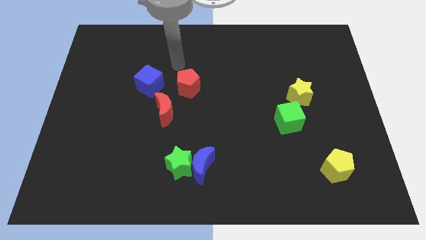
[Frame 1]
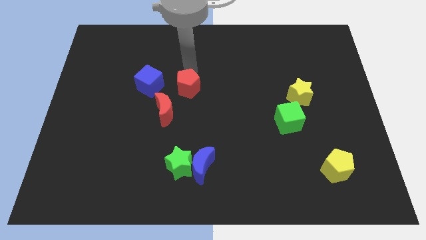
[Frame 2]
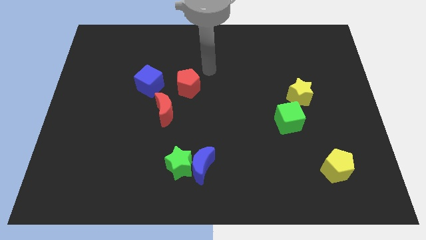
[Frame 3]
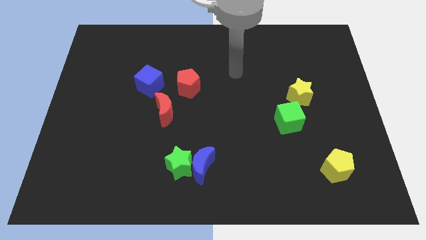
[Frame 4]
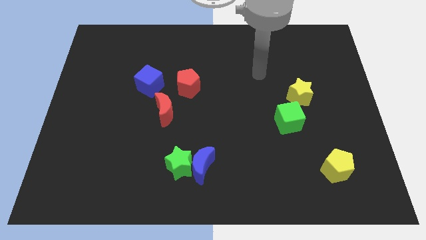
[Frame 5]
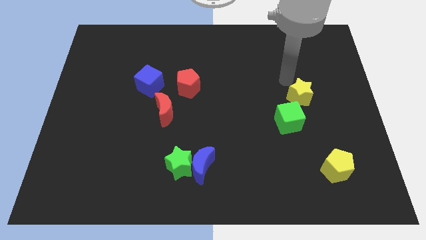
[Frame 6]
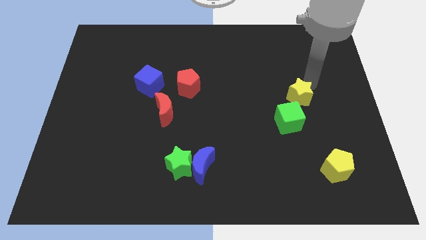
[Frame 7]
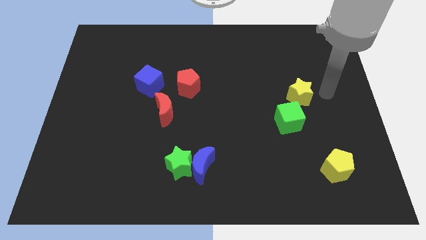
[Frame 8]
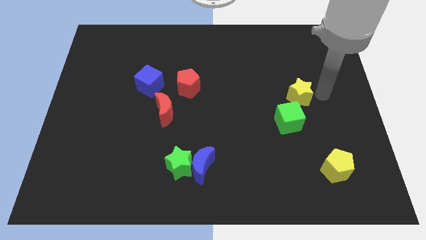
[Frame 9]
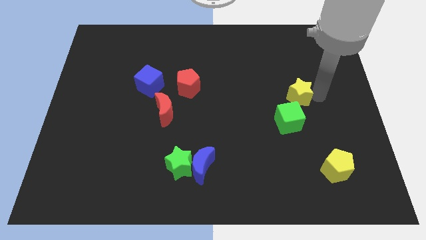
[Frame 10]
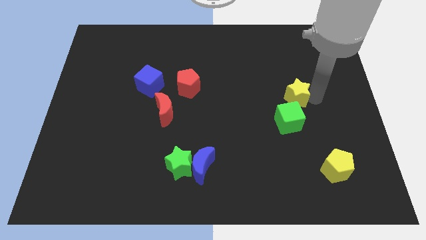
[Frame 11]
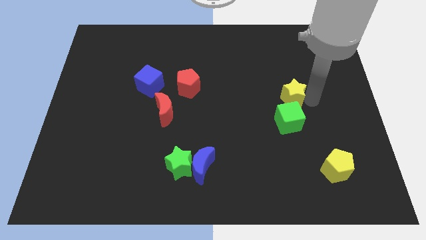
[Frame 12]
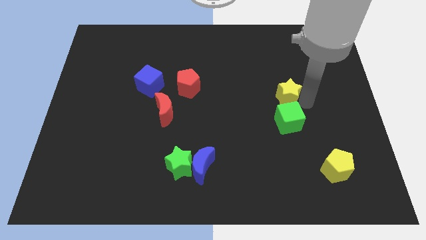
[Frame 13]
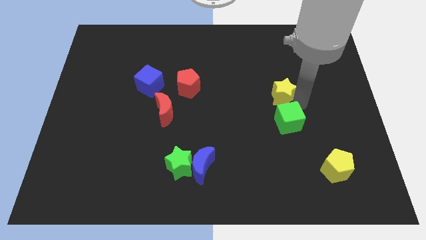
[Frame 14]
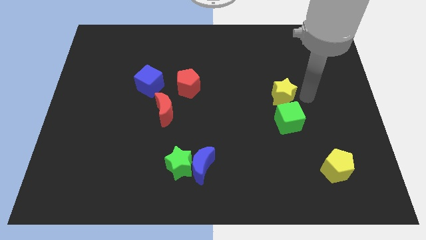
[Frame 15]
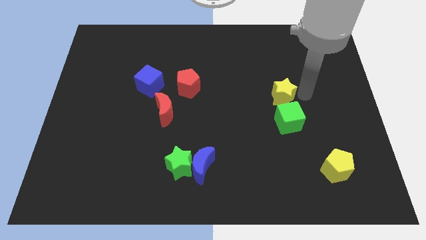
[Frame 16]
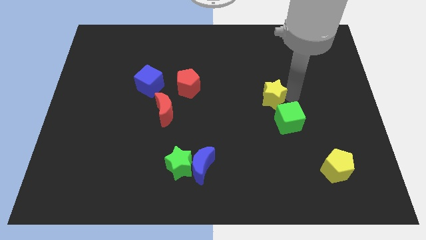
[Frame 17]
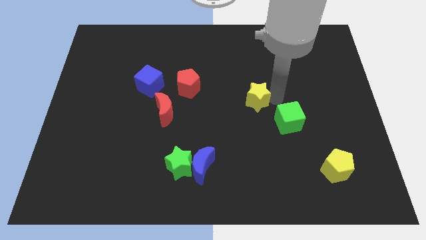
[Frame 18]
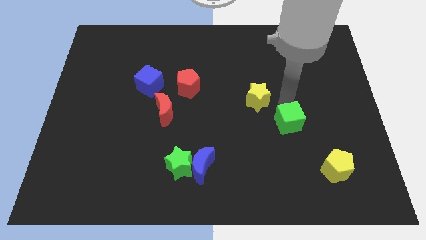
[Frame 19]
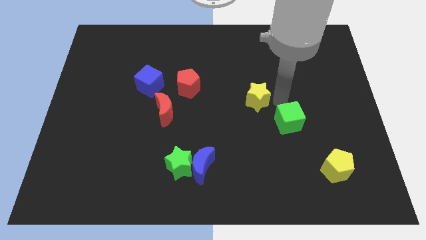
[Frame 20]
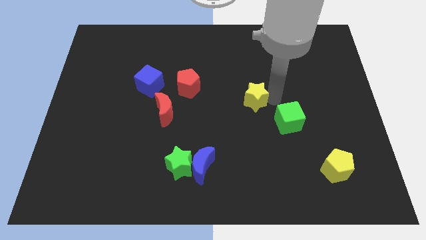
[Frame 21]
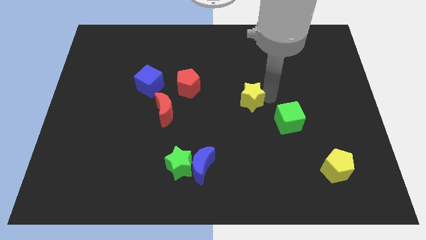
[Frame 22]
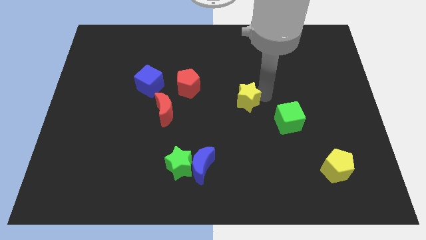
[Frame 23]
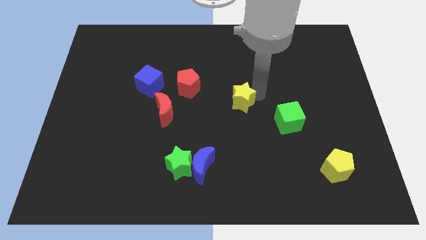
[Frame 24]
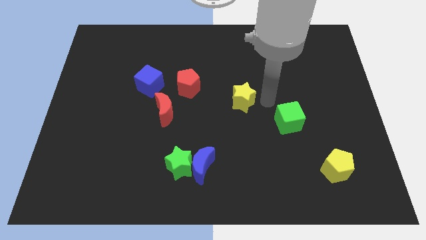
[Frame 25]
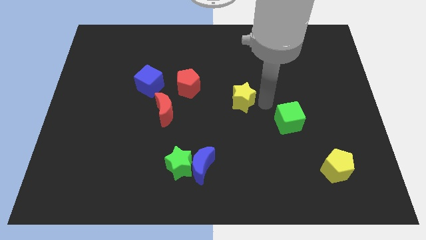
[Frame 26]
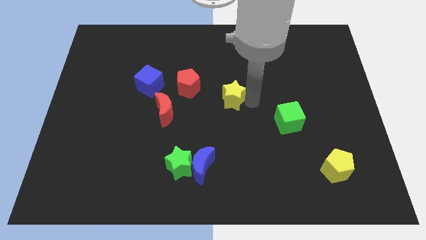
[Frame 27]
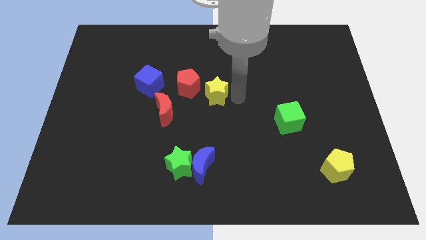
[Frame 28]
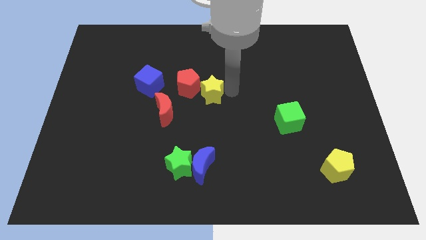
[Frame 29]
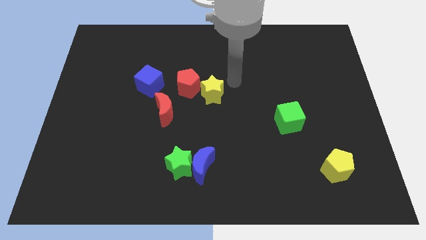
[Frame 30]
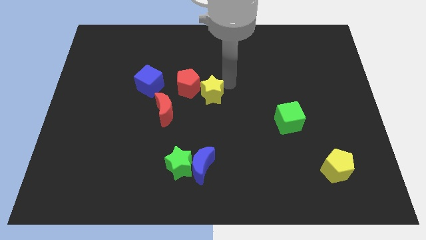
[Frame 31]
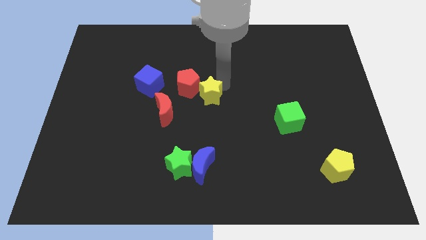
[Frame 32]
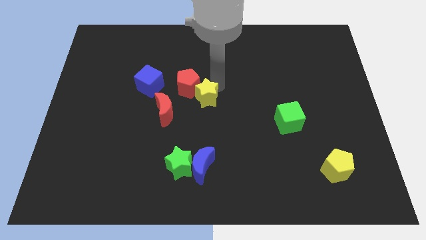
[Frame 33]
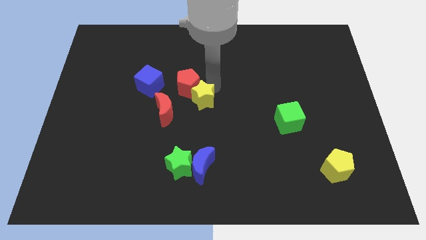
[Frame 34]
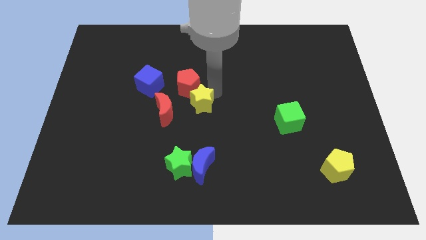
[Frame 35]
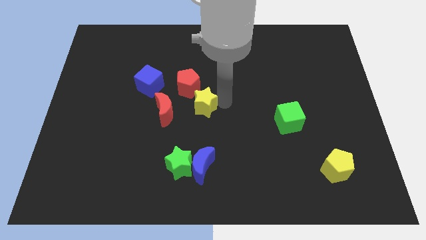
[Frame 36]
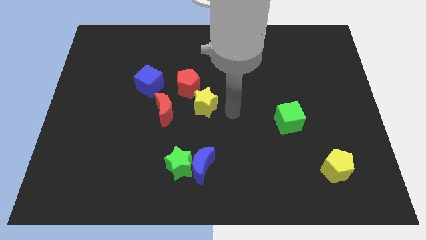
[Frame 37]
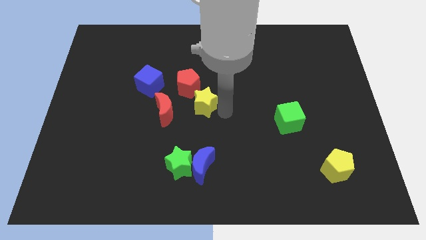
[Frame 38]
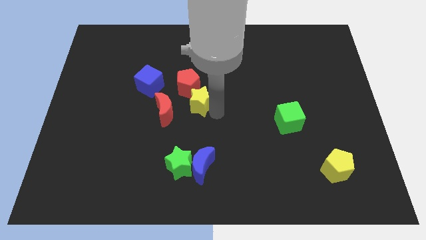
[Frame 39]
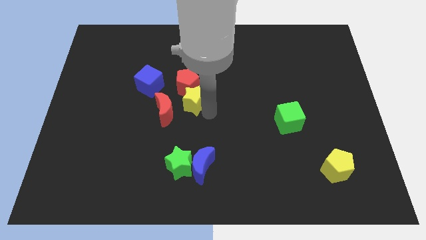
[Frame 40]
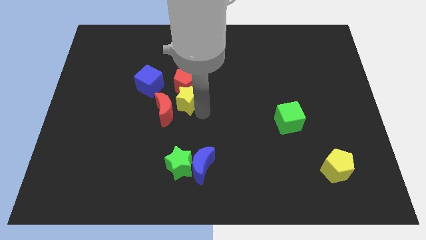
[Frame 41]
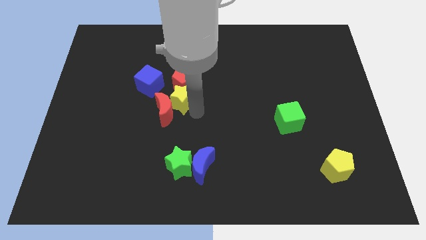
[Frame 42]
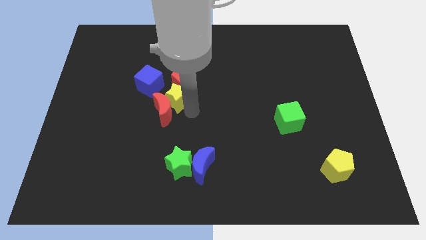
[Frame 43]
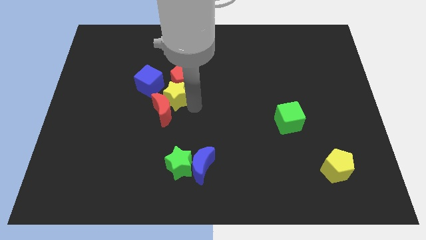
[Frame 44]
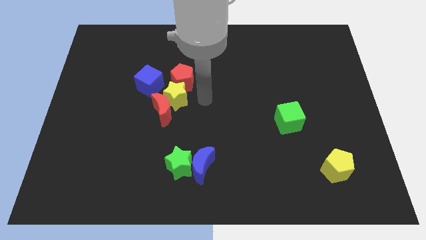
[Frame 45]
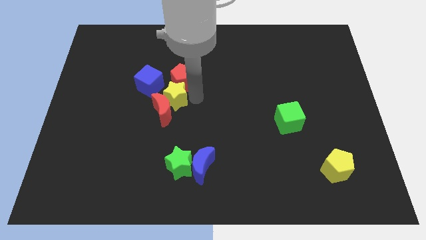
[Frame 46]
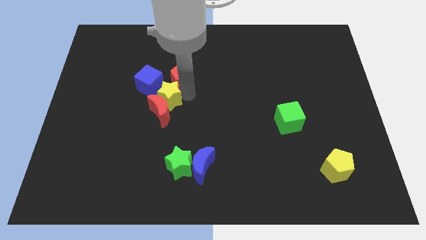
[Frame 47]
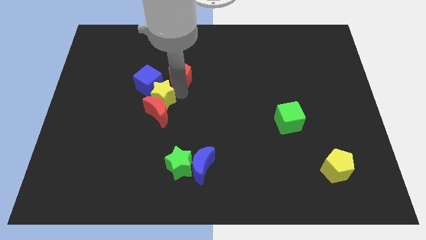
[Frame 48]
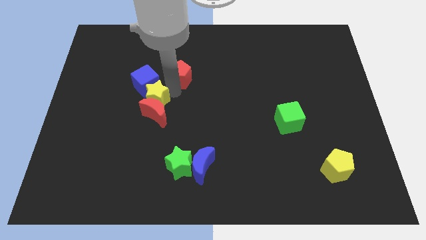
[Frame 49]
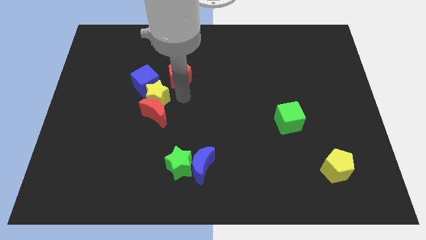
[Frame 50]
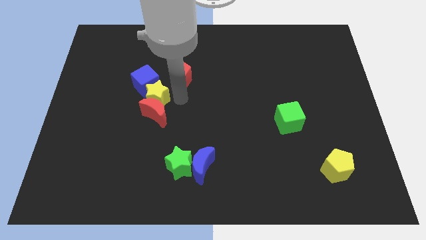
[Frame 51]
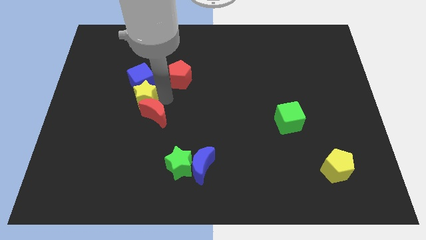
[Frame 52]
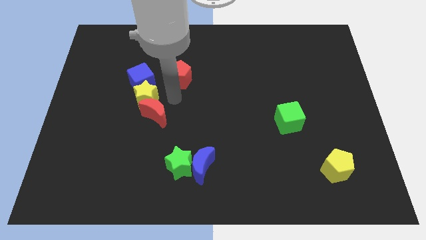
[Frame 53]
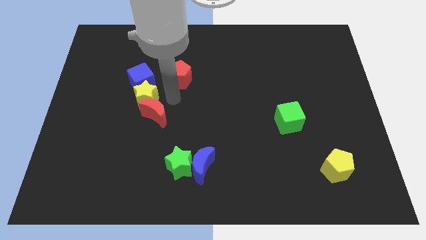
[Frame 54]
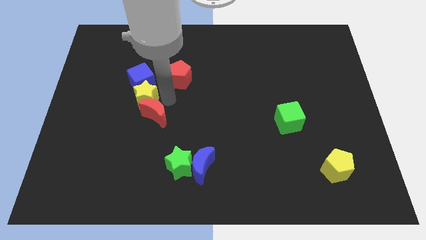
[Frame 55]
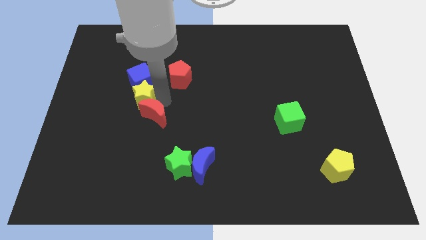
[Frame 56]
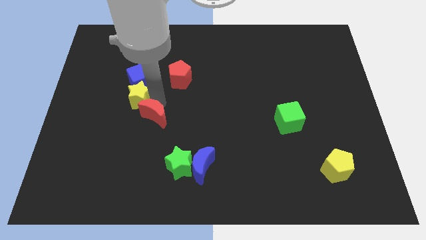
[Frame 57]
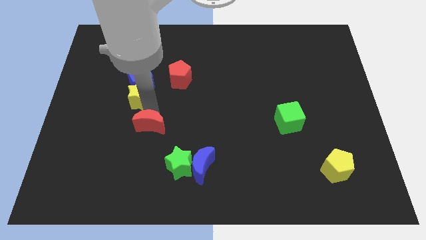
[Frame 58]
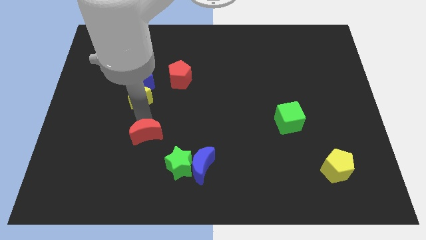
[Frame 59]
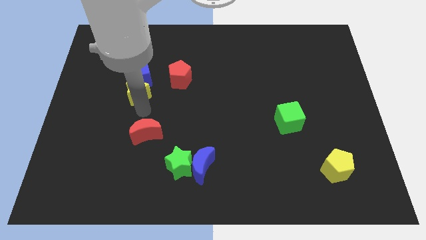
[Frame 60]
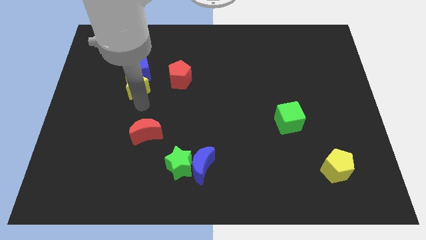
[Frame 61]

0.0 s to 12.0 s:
slide the yellow star left of the red pentagon

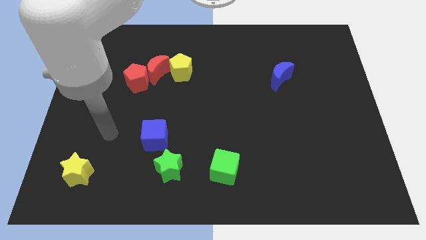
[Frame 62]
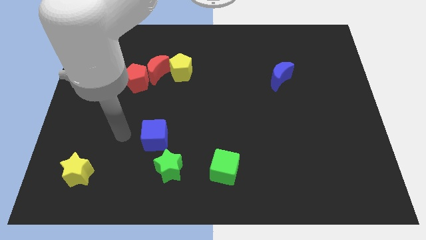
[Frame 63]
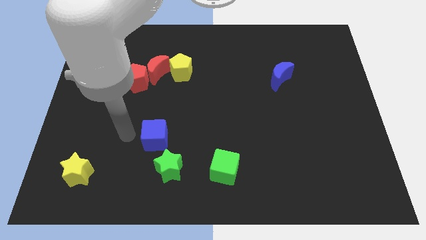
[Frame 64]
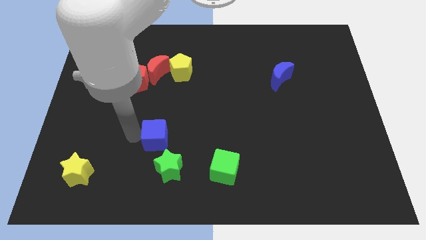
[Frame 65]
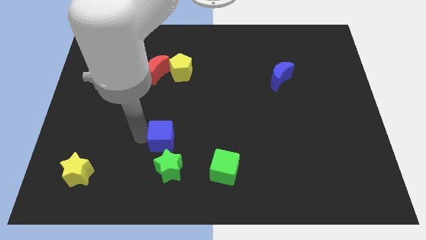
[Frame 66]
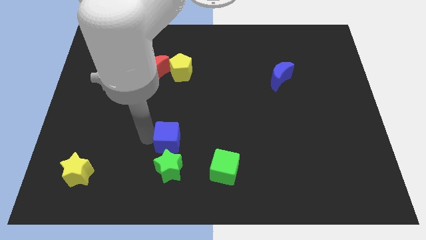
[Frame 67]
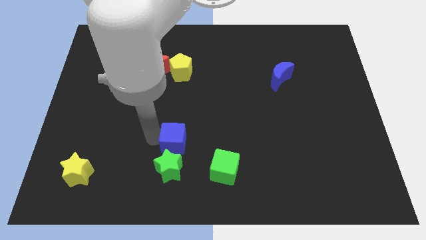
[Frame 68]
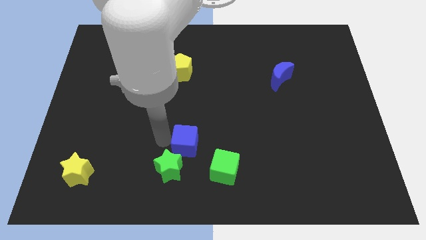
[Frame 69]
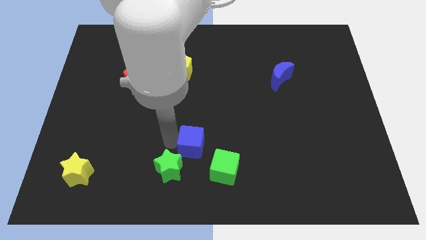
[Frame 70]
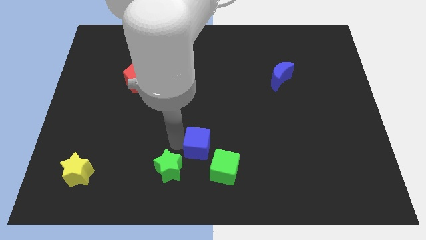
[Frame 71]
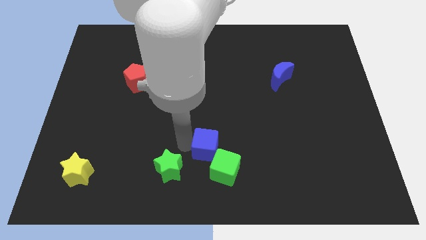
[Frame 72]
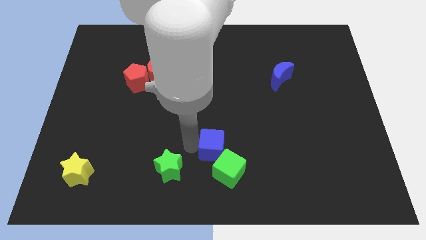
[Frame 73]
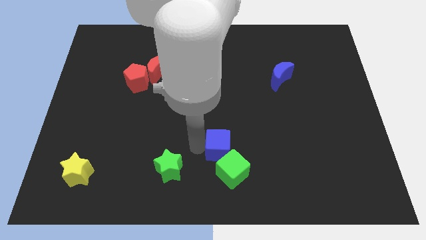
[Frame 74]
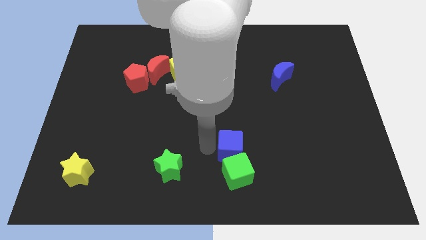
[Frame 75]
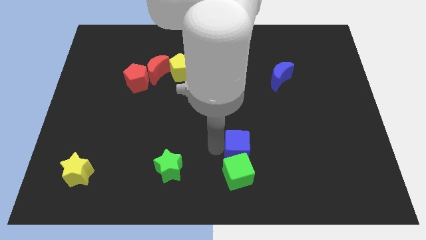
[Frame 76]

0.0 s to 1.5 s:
slide the blue cube diagonally up and to the right of the green cube

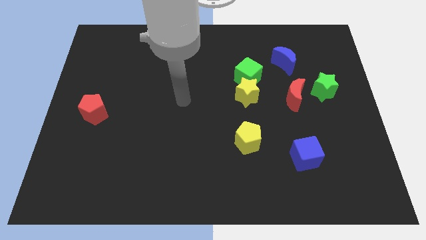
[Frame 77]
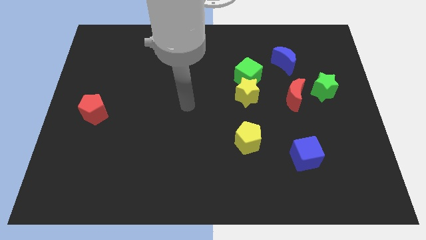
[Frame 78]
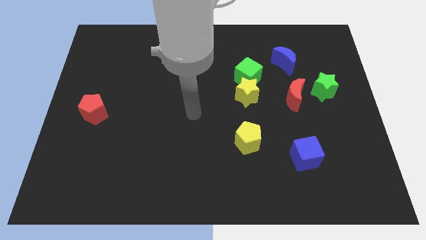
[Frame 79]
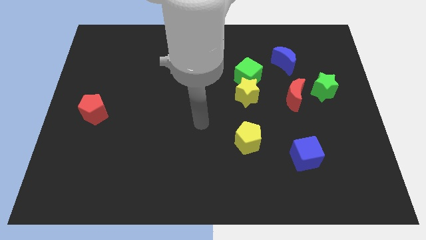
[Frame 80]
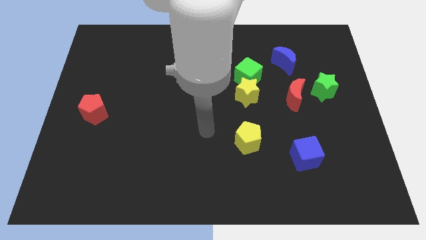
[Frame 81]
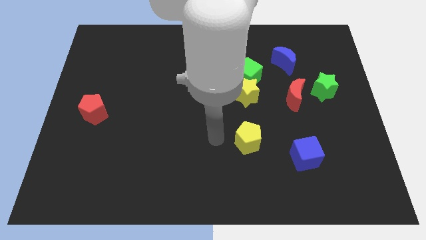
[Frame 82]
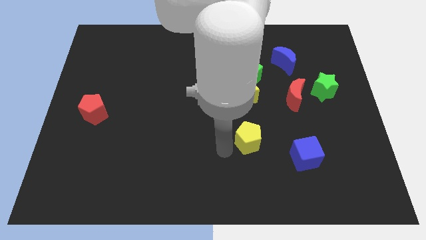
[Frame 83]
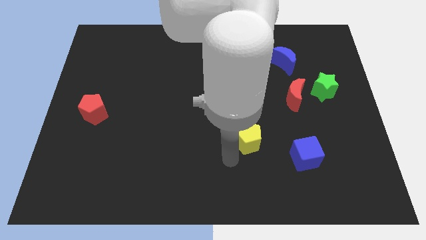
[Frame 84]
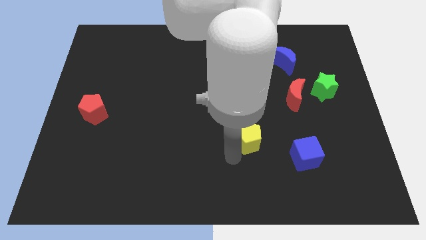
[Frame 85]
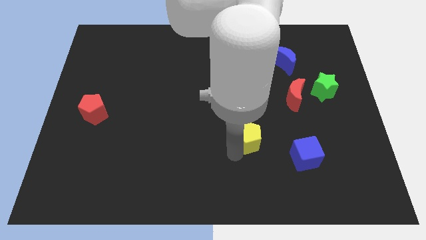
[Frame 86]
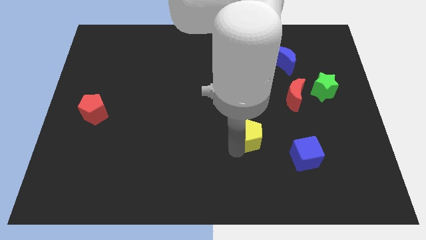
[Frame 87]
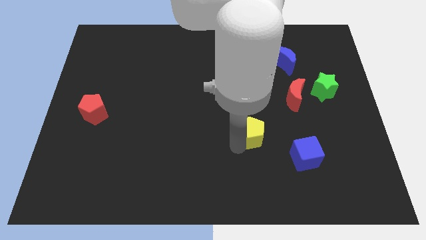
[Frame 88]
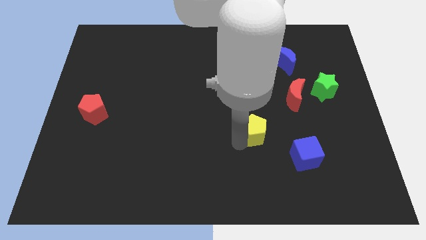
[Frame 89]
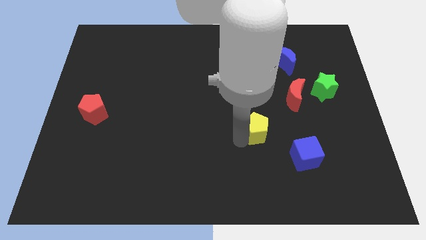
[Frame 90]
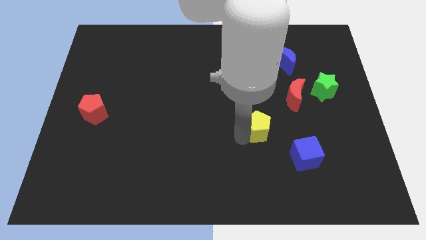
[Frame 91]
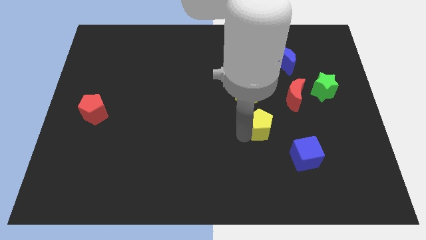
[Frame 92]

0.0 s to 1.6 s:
move the yellow pentagon diagonally down and to the left of the red moon
